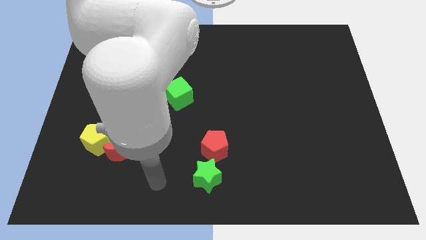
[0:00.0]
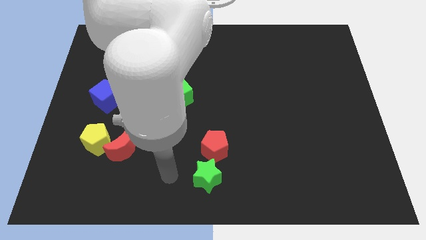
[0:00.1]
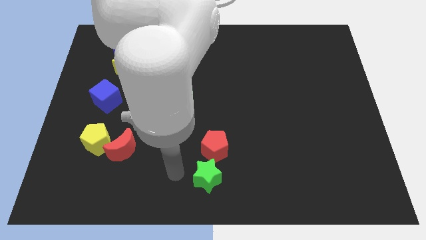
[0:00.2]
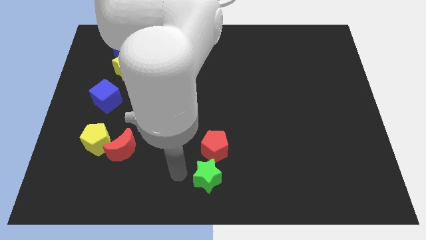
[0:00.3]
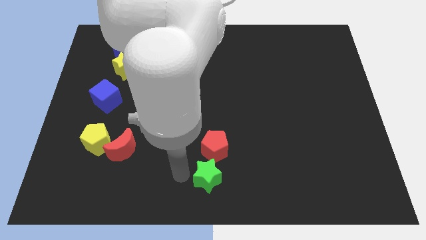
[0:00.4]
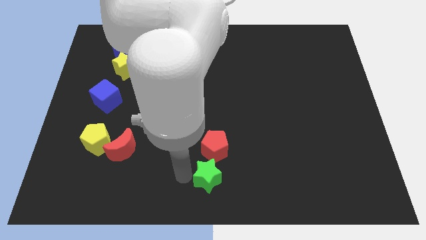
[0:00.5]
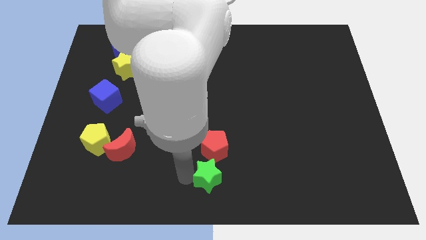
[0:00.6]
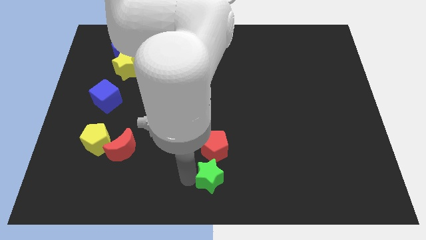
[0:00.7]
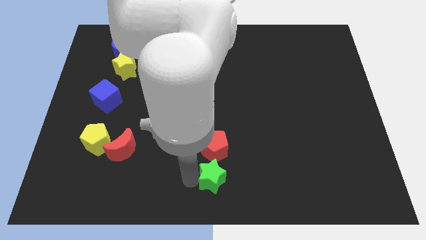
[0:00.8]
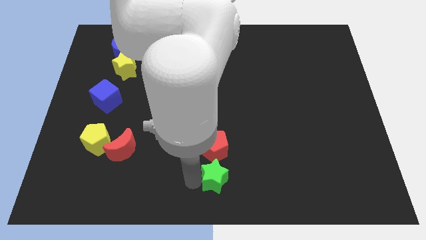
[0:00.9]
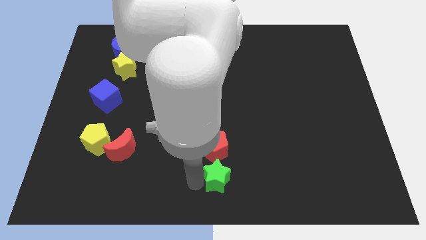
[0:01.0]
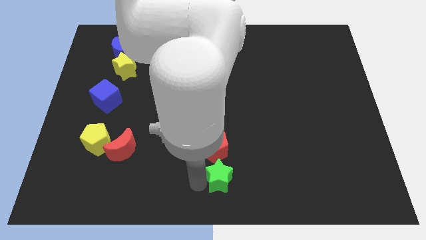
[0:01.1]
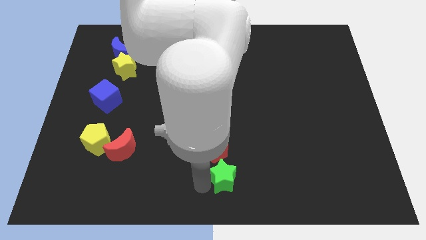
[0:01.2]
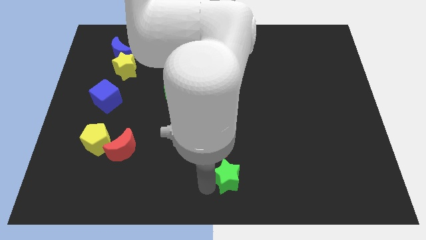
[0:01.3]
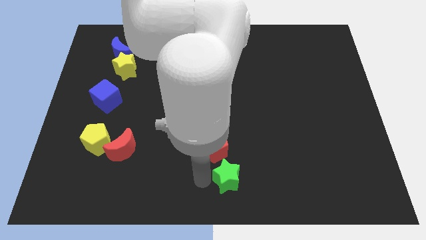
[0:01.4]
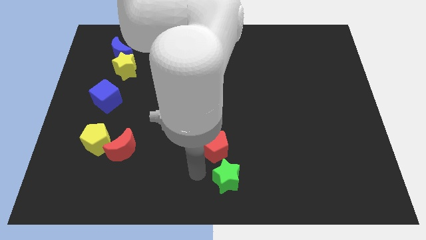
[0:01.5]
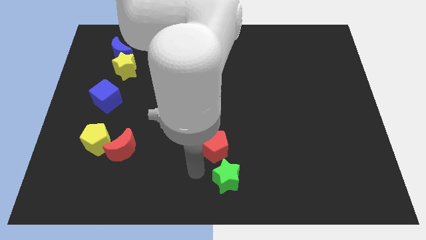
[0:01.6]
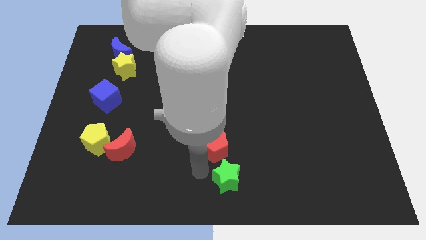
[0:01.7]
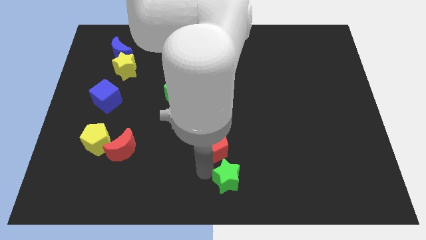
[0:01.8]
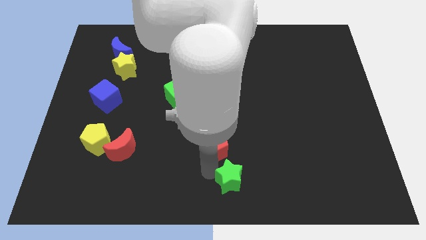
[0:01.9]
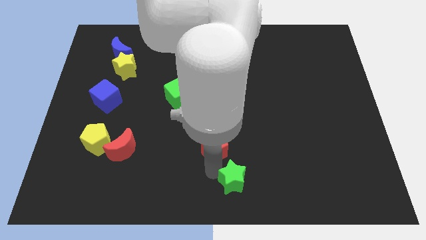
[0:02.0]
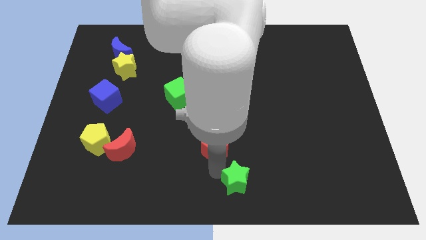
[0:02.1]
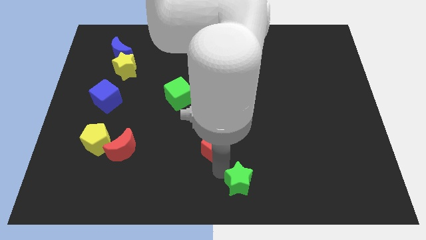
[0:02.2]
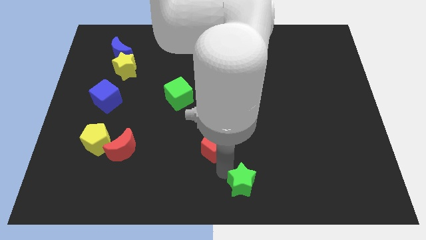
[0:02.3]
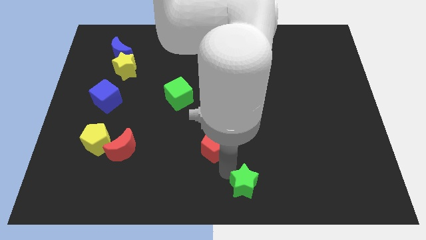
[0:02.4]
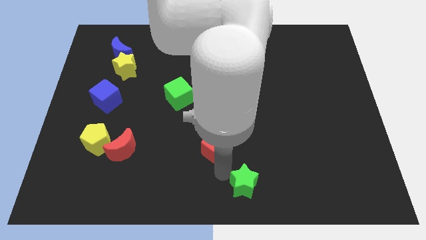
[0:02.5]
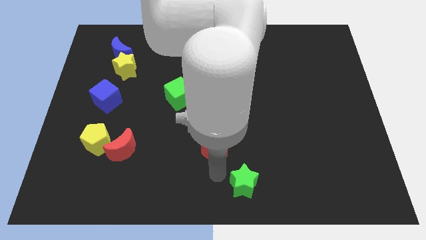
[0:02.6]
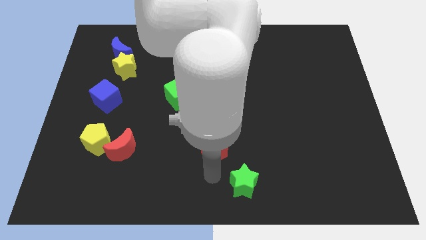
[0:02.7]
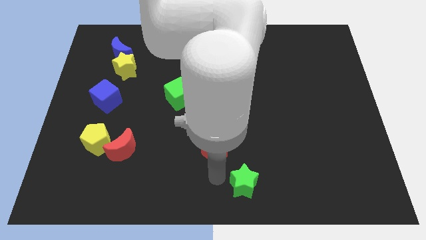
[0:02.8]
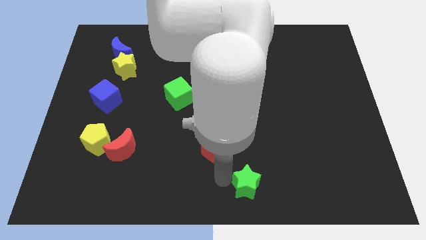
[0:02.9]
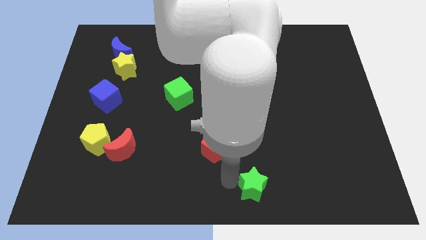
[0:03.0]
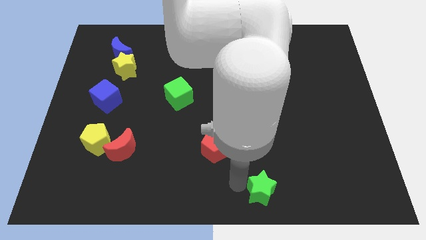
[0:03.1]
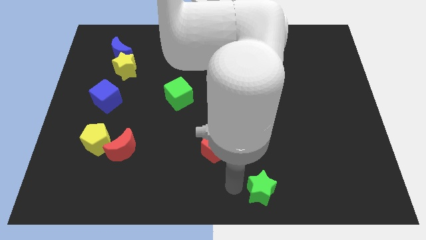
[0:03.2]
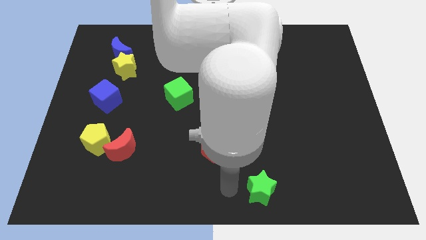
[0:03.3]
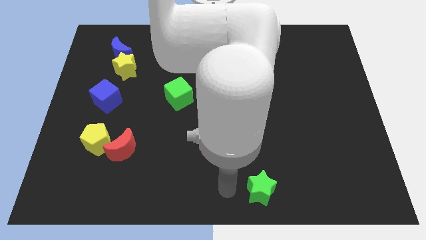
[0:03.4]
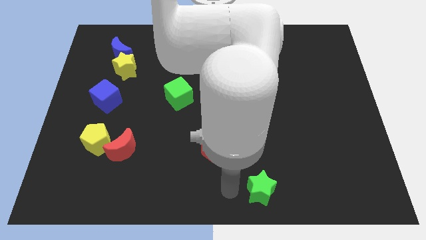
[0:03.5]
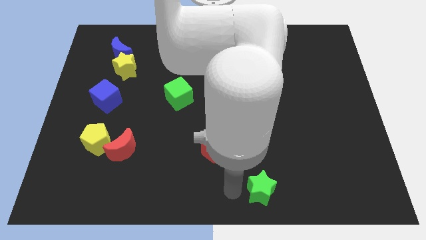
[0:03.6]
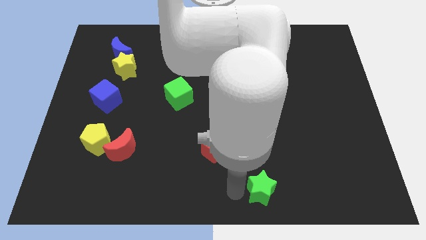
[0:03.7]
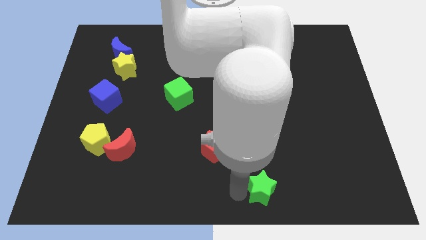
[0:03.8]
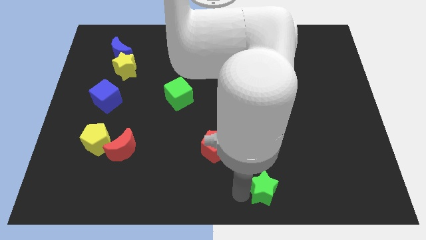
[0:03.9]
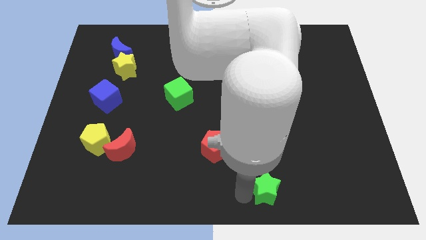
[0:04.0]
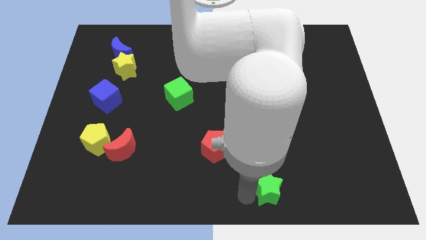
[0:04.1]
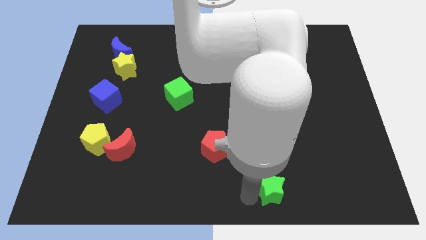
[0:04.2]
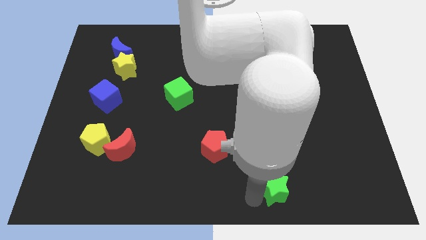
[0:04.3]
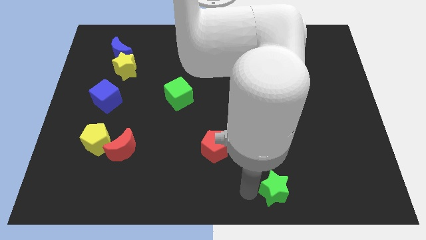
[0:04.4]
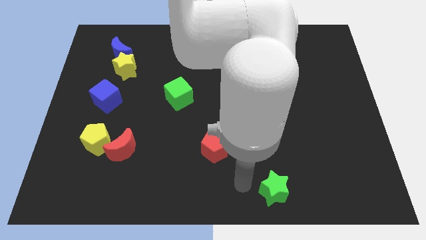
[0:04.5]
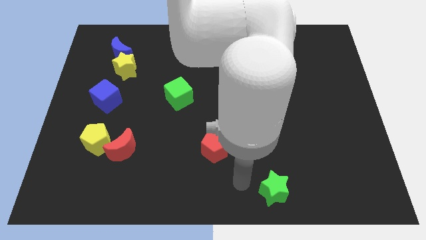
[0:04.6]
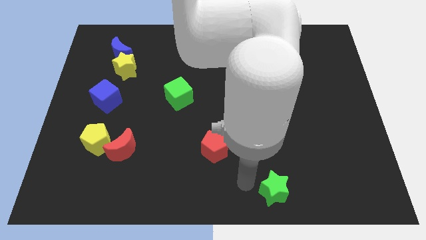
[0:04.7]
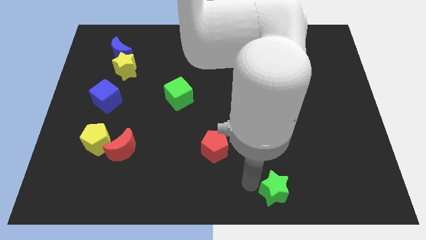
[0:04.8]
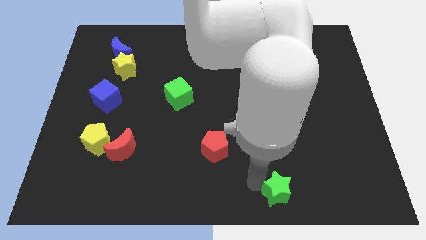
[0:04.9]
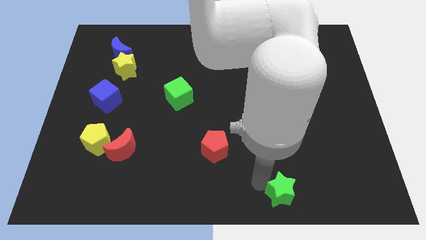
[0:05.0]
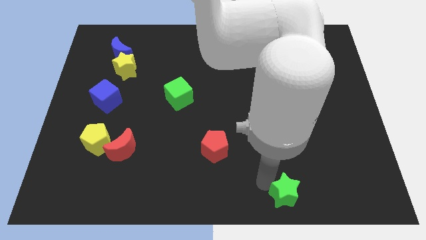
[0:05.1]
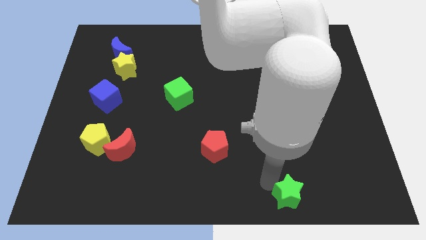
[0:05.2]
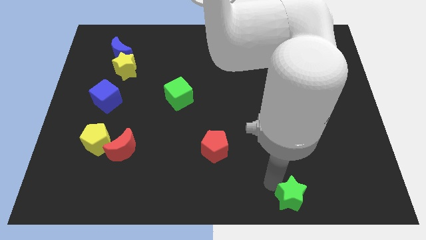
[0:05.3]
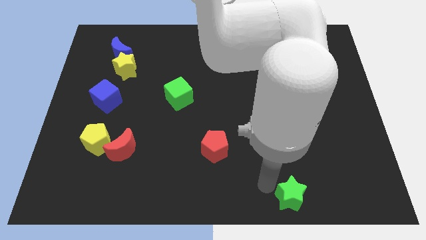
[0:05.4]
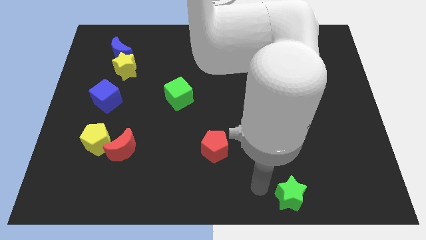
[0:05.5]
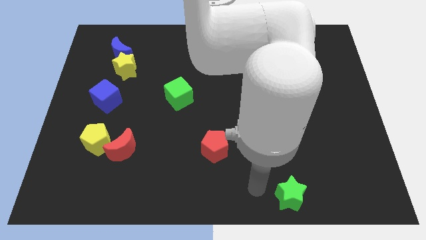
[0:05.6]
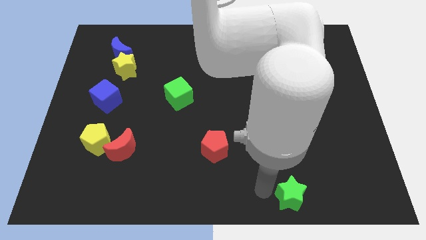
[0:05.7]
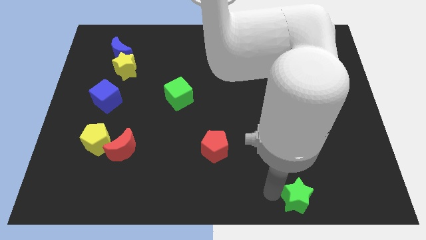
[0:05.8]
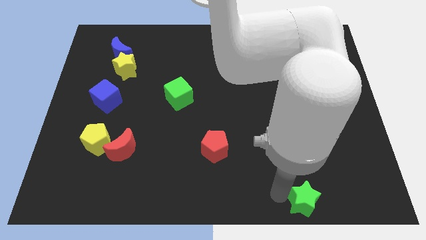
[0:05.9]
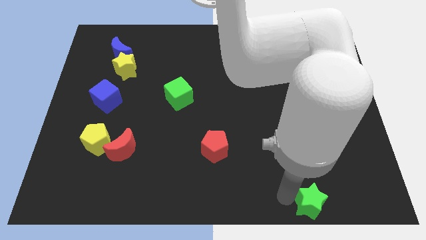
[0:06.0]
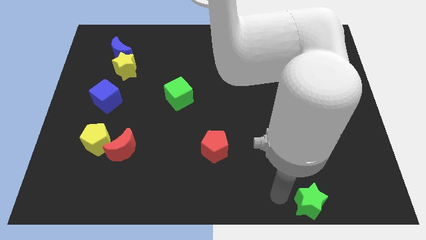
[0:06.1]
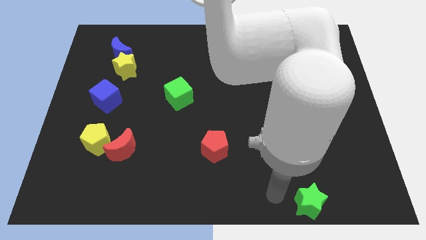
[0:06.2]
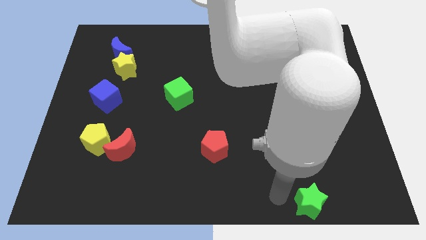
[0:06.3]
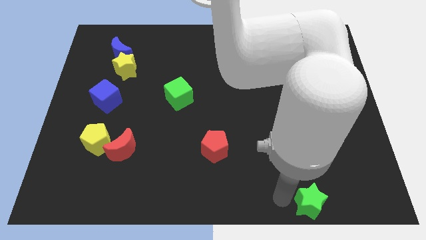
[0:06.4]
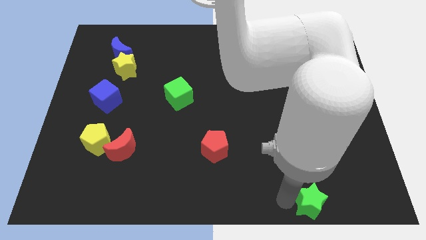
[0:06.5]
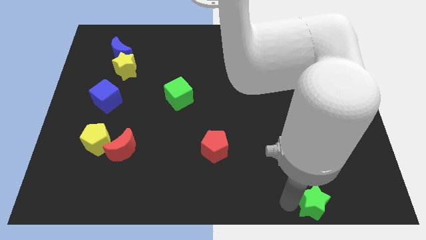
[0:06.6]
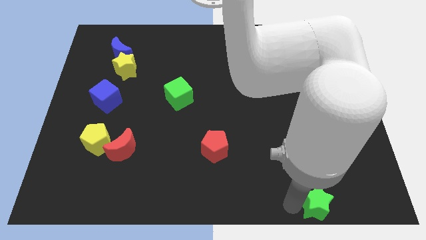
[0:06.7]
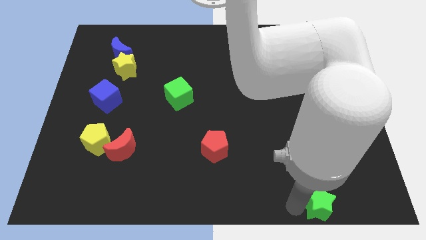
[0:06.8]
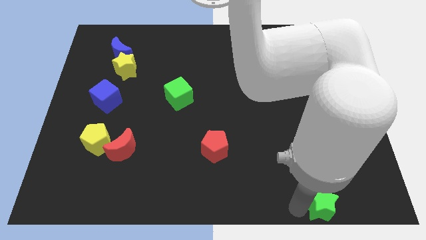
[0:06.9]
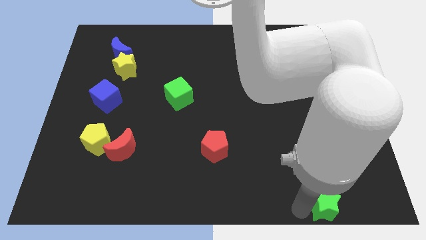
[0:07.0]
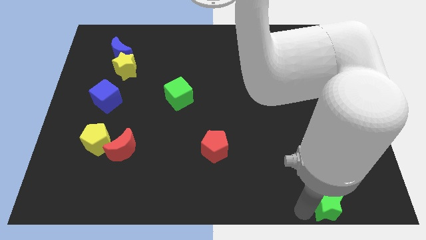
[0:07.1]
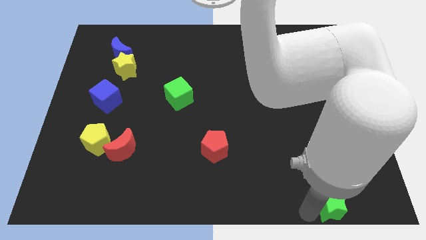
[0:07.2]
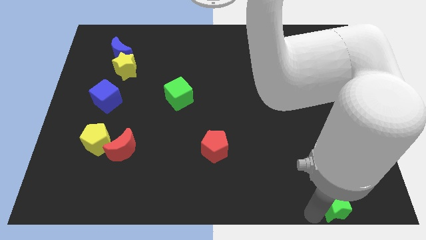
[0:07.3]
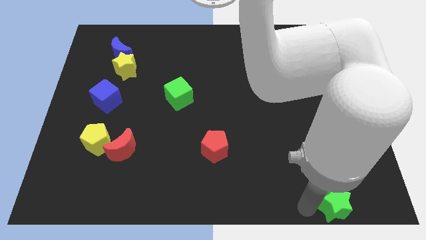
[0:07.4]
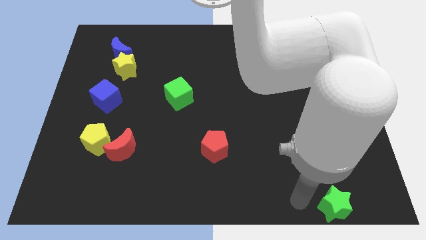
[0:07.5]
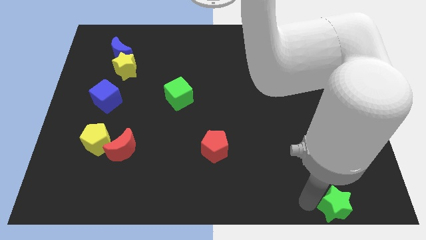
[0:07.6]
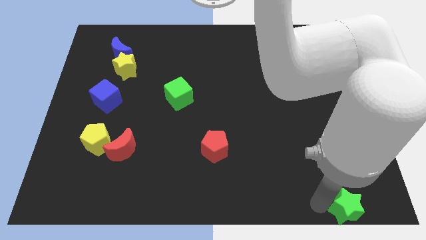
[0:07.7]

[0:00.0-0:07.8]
push the green star to the lower right corner
